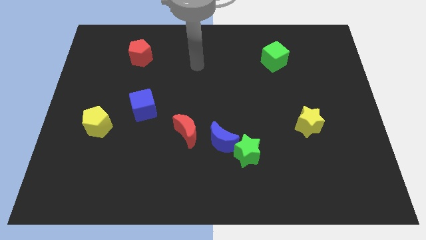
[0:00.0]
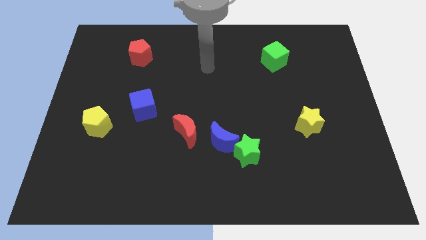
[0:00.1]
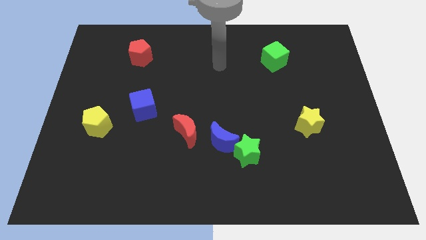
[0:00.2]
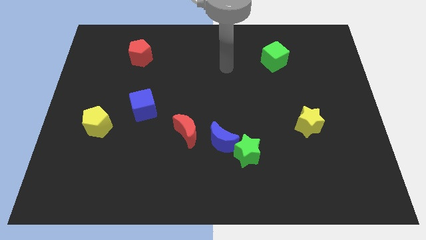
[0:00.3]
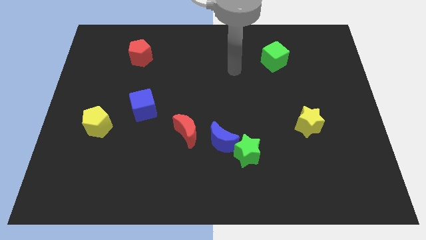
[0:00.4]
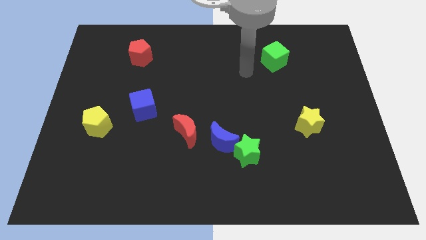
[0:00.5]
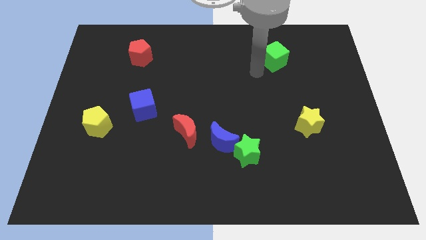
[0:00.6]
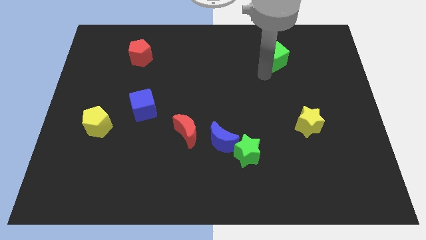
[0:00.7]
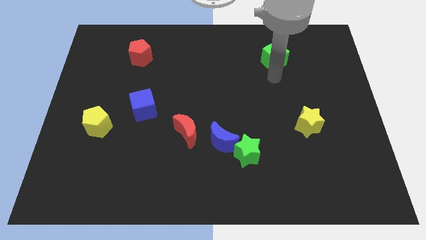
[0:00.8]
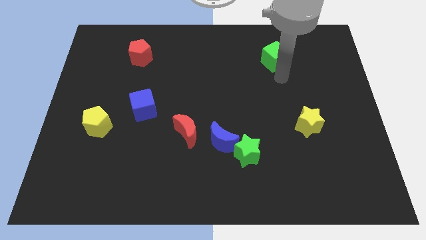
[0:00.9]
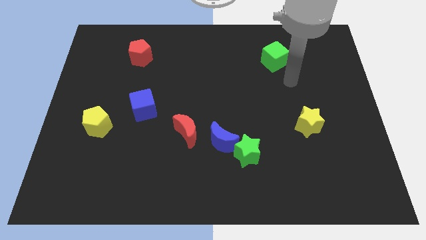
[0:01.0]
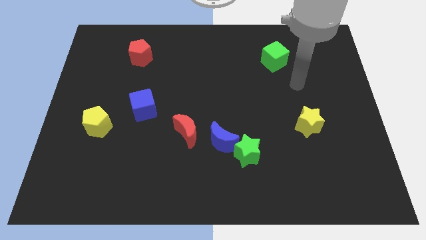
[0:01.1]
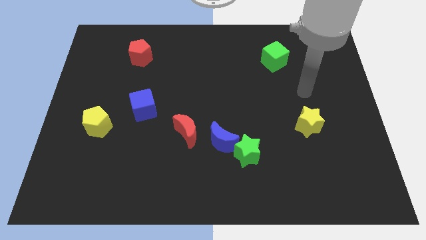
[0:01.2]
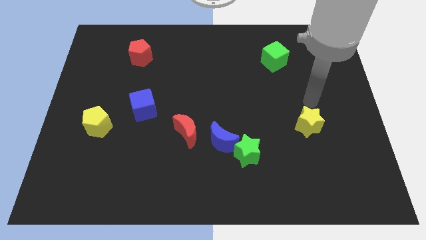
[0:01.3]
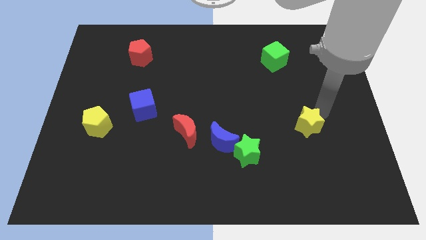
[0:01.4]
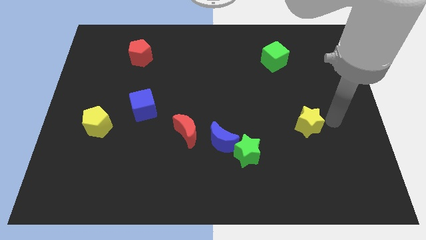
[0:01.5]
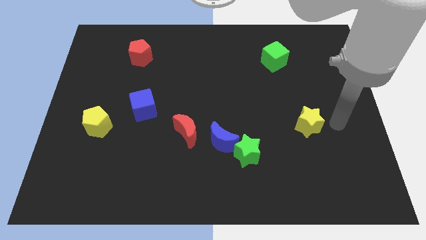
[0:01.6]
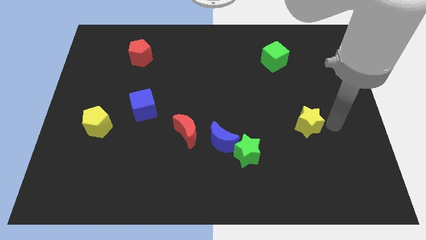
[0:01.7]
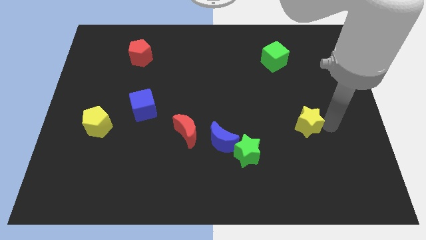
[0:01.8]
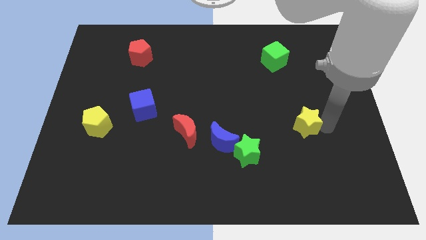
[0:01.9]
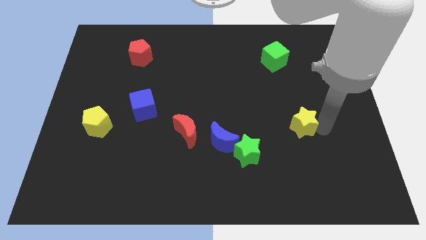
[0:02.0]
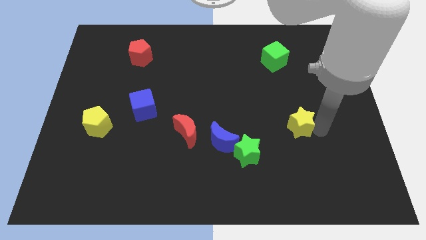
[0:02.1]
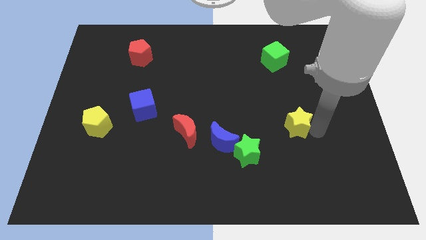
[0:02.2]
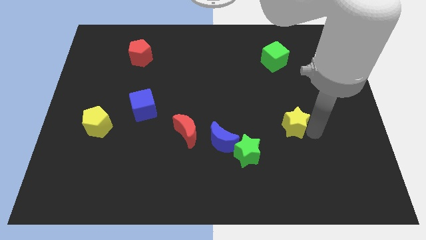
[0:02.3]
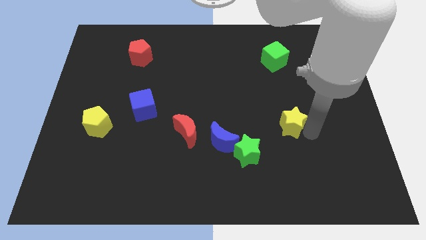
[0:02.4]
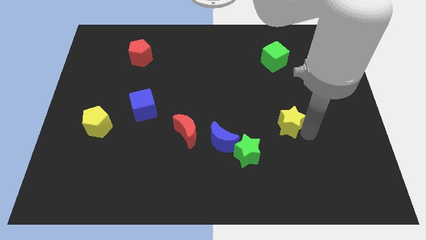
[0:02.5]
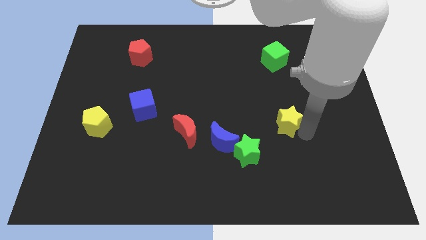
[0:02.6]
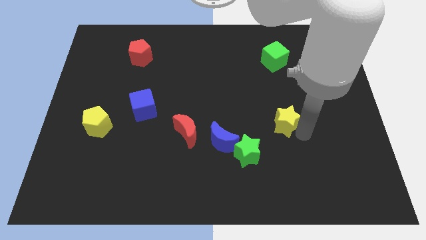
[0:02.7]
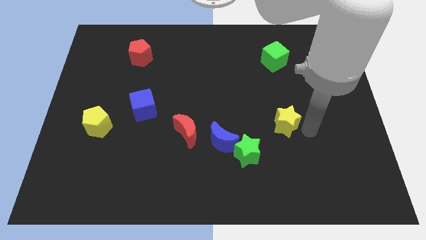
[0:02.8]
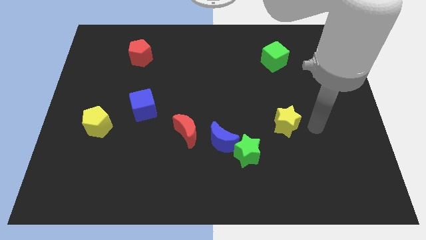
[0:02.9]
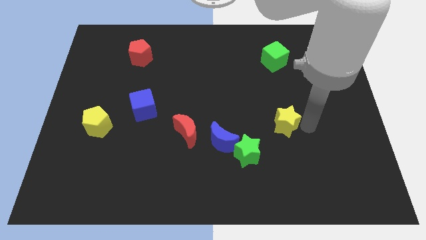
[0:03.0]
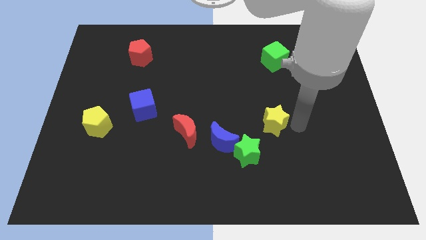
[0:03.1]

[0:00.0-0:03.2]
push the yellow star to the left somewhat

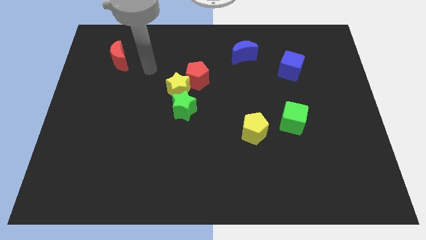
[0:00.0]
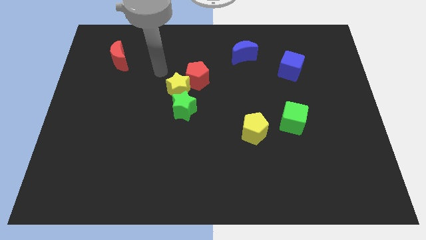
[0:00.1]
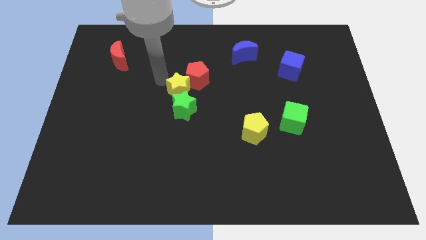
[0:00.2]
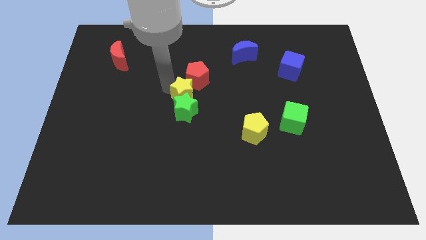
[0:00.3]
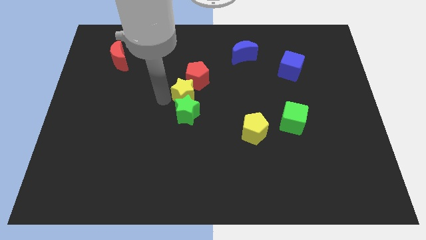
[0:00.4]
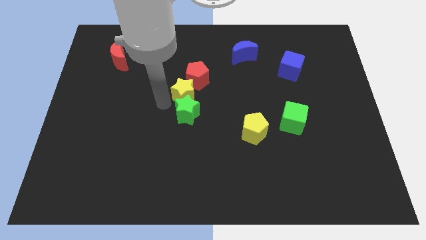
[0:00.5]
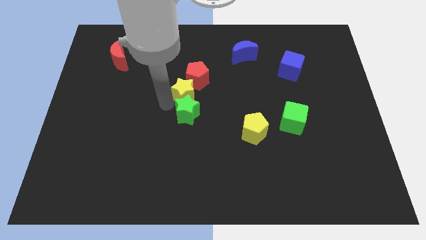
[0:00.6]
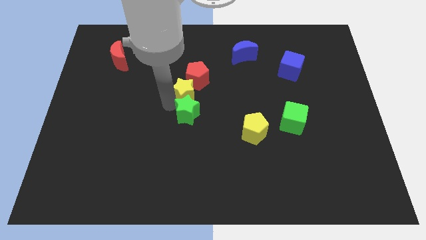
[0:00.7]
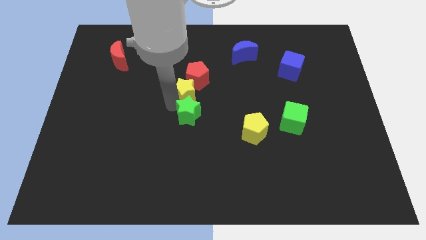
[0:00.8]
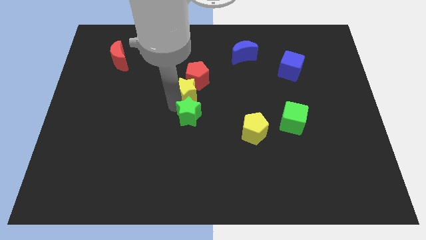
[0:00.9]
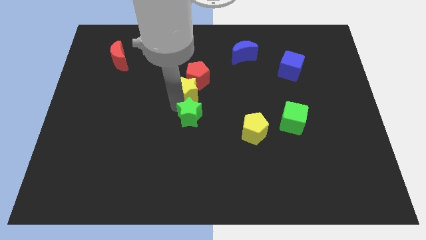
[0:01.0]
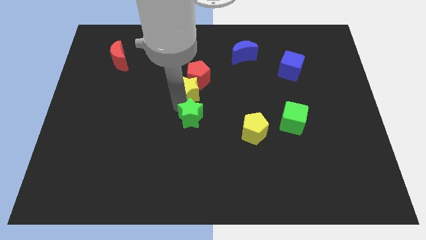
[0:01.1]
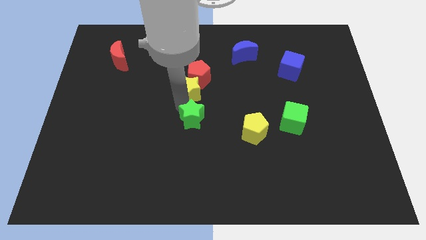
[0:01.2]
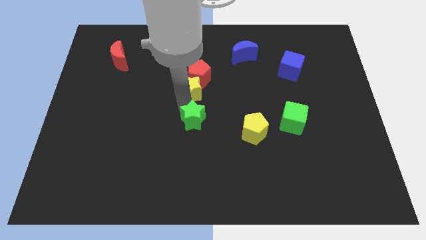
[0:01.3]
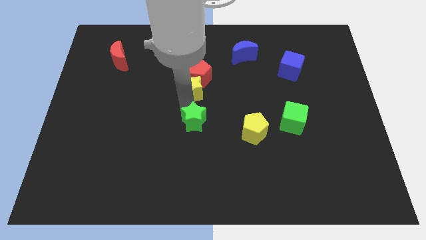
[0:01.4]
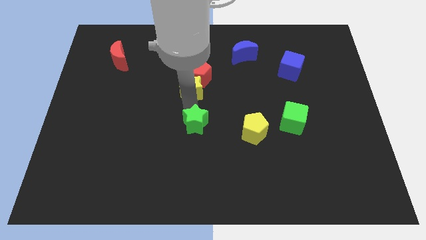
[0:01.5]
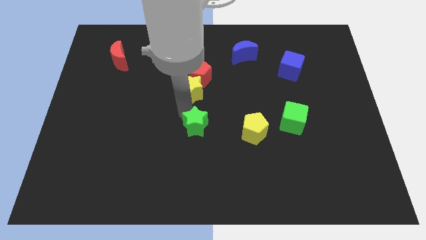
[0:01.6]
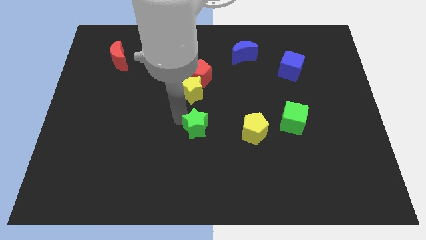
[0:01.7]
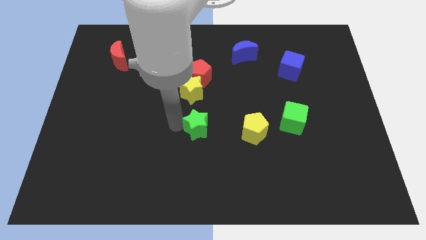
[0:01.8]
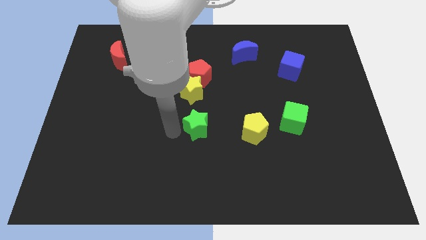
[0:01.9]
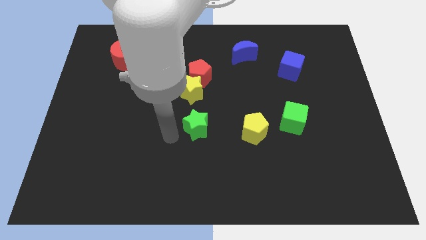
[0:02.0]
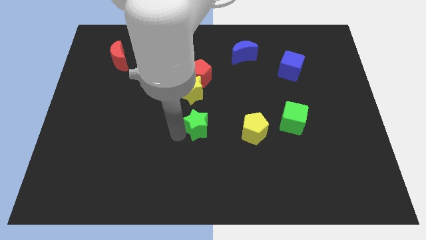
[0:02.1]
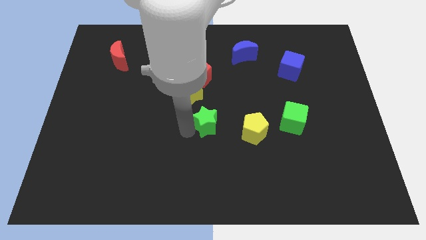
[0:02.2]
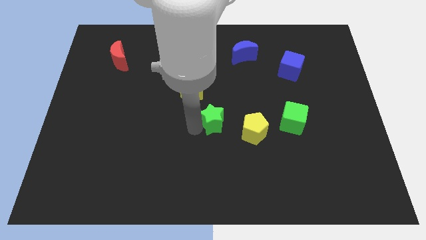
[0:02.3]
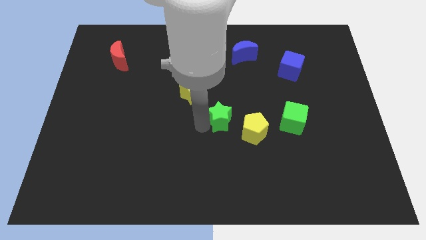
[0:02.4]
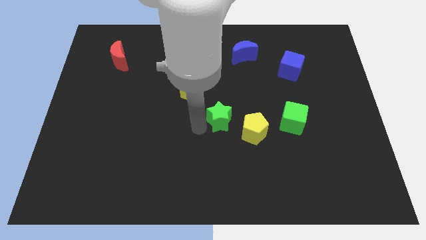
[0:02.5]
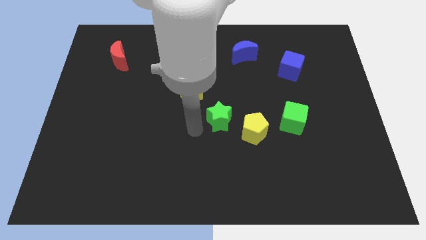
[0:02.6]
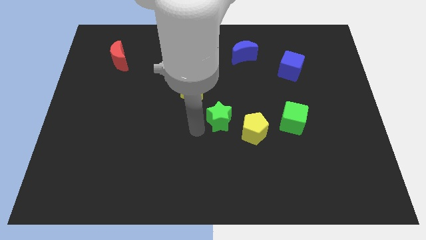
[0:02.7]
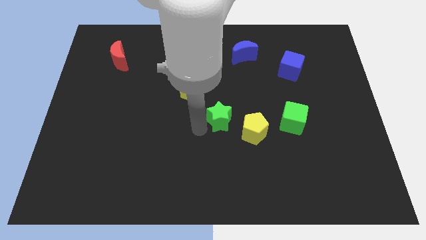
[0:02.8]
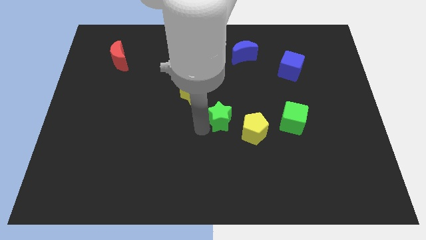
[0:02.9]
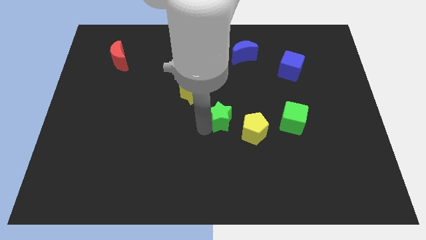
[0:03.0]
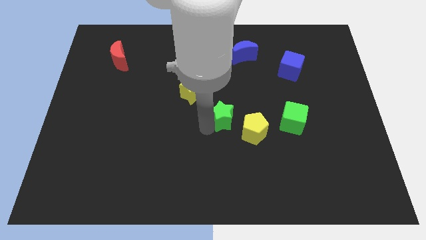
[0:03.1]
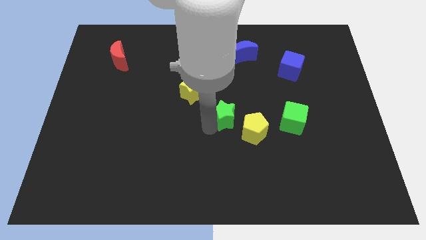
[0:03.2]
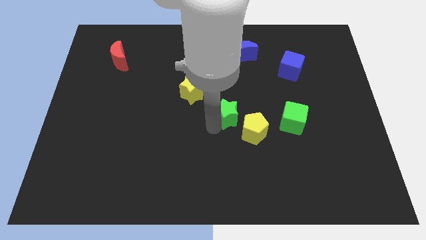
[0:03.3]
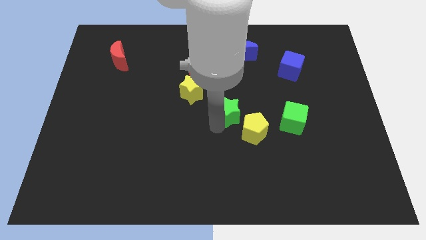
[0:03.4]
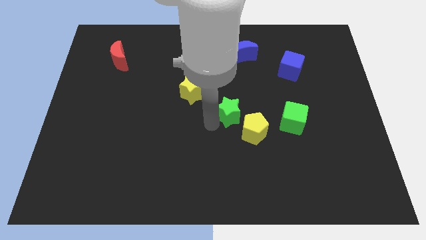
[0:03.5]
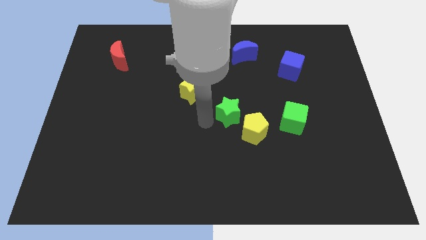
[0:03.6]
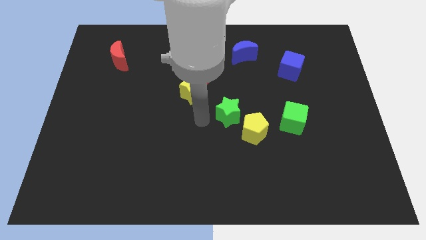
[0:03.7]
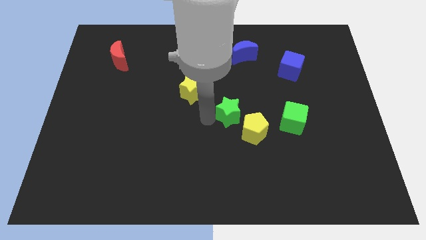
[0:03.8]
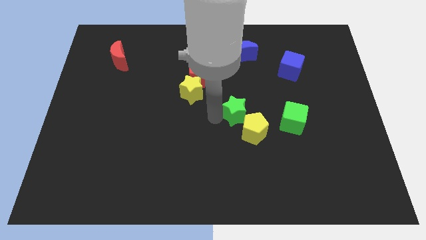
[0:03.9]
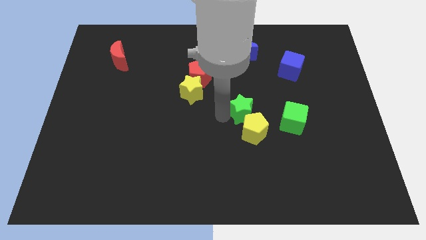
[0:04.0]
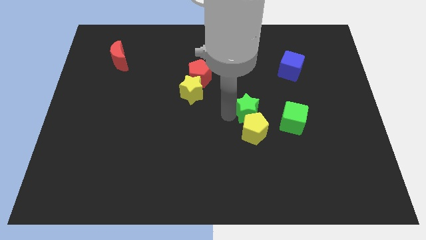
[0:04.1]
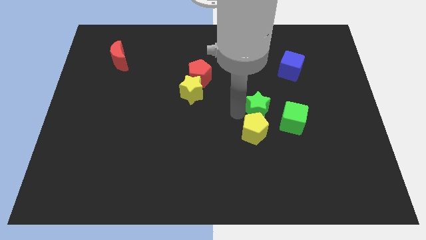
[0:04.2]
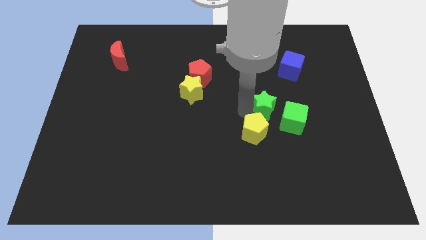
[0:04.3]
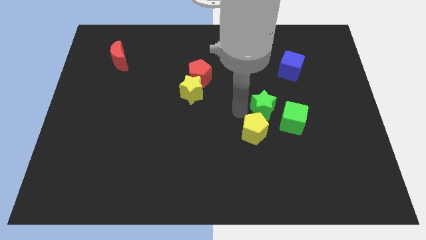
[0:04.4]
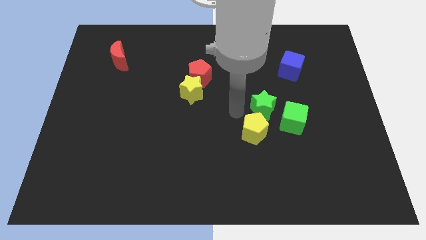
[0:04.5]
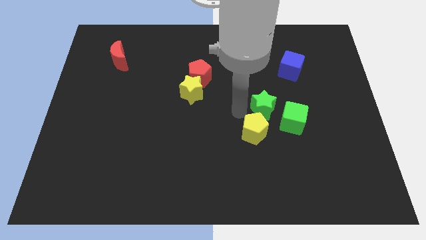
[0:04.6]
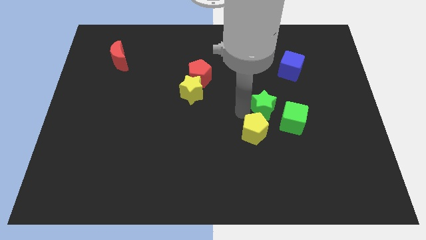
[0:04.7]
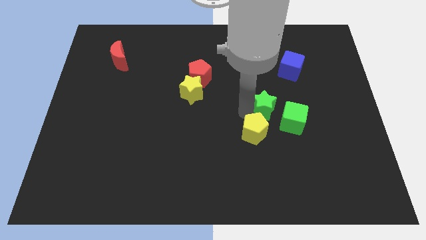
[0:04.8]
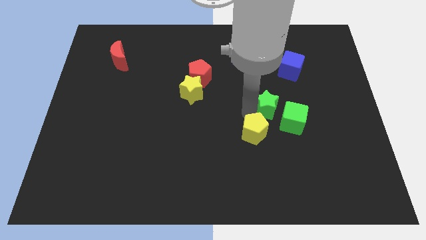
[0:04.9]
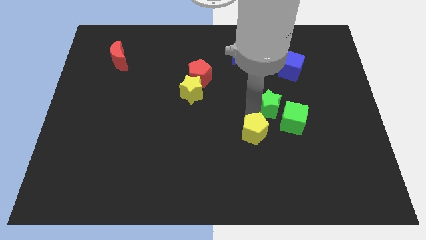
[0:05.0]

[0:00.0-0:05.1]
push the green star right
